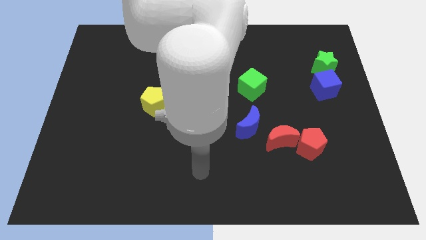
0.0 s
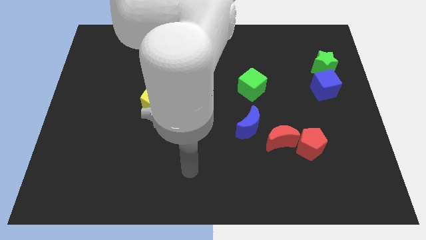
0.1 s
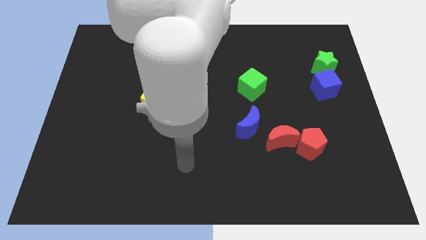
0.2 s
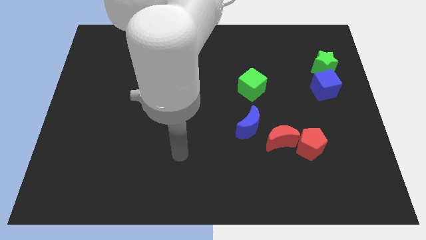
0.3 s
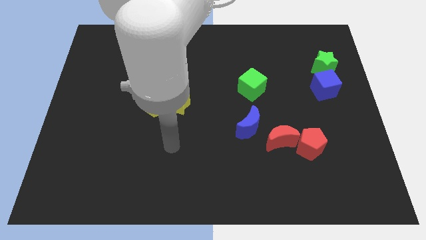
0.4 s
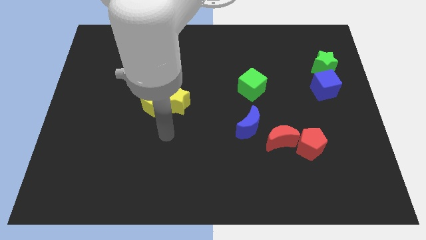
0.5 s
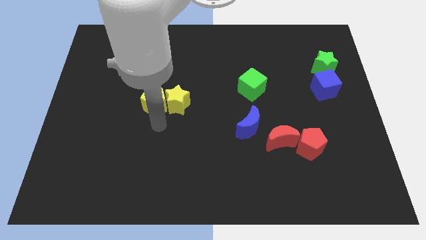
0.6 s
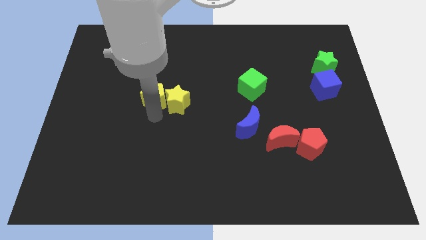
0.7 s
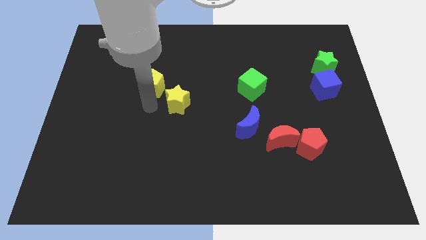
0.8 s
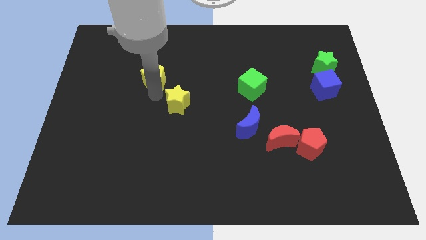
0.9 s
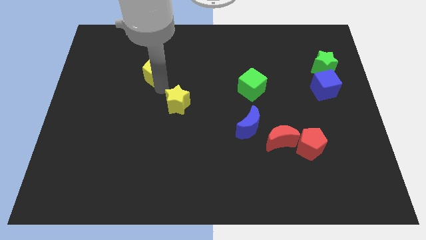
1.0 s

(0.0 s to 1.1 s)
separate the yellow star from the yellow pentagon

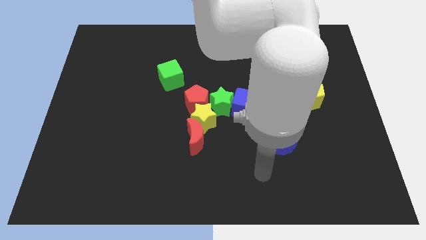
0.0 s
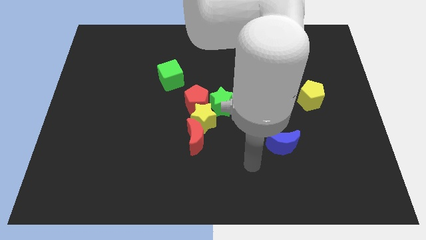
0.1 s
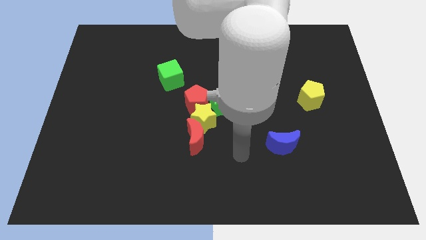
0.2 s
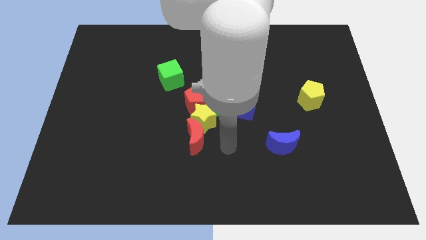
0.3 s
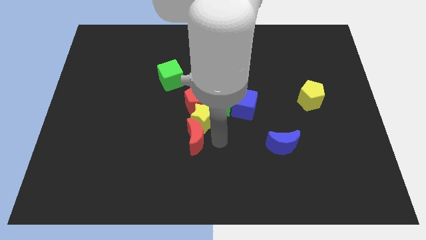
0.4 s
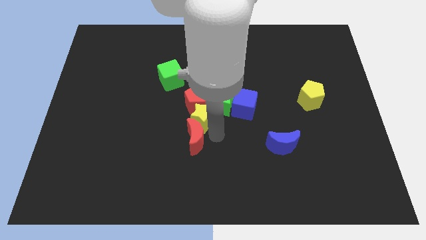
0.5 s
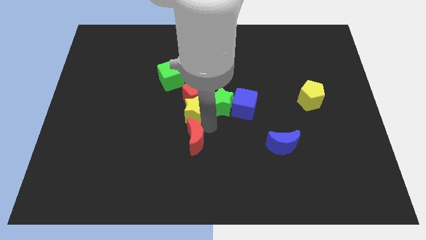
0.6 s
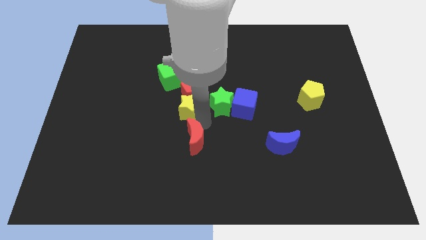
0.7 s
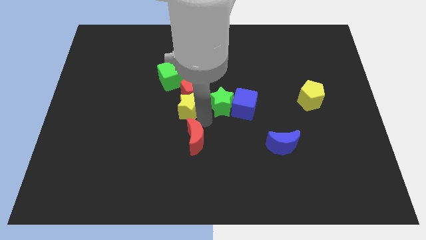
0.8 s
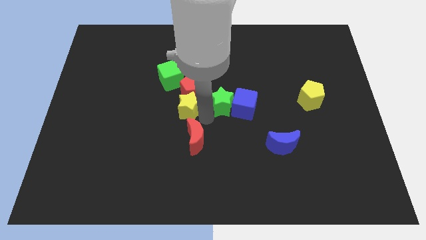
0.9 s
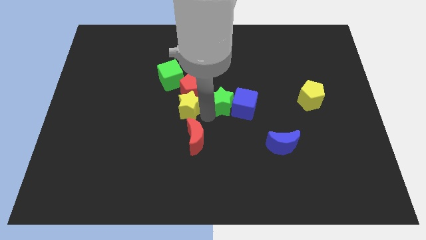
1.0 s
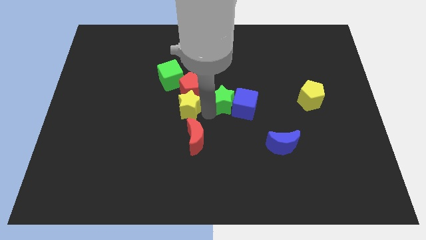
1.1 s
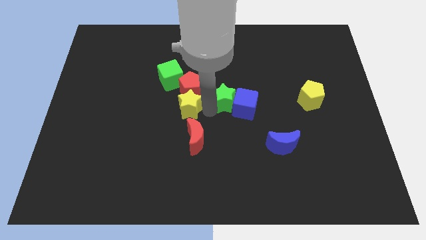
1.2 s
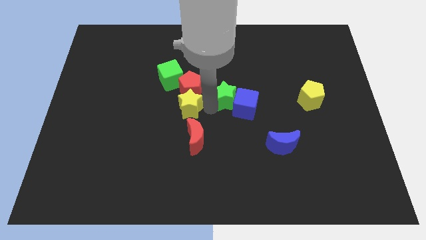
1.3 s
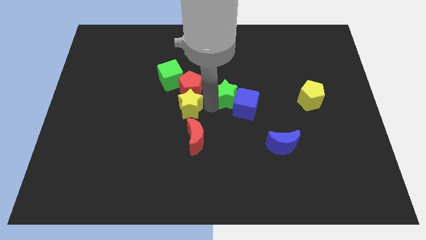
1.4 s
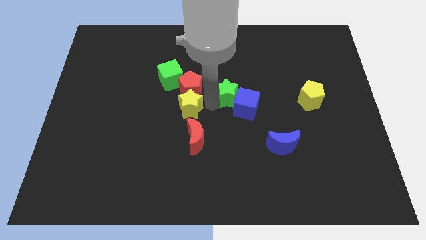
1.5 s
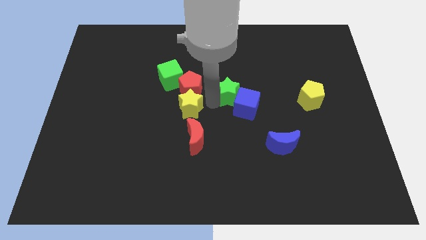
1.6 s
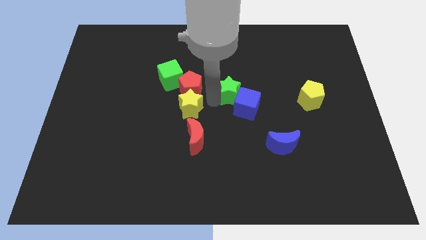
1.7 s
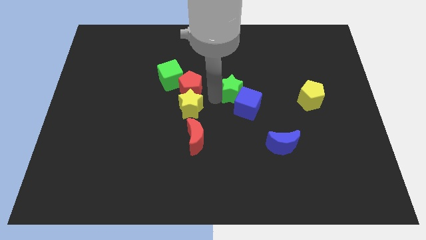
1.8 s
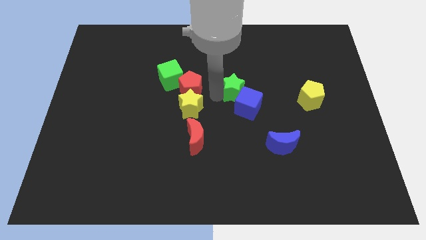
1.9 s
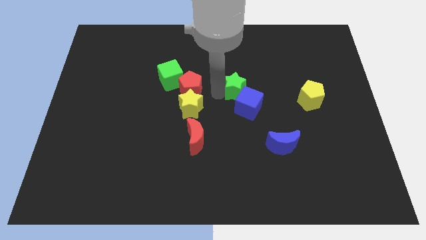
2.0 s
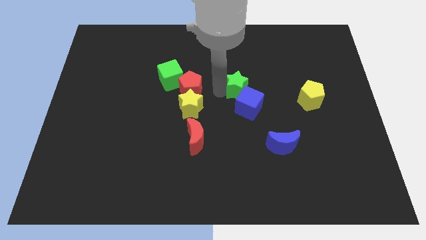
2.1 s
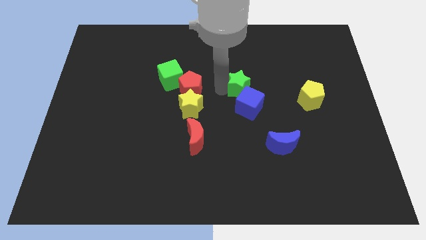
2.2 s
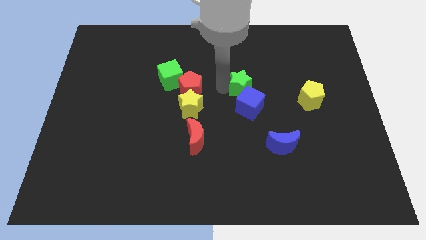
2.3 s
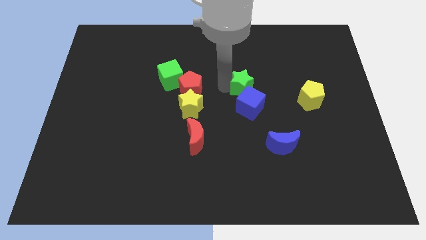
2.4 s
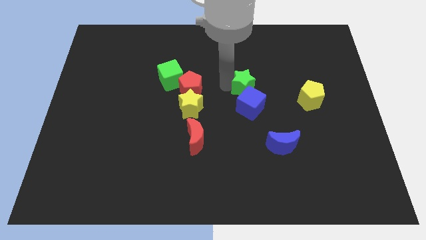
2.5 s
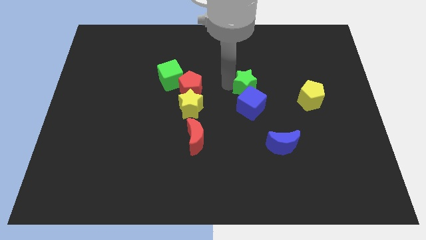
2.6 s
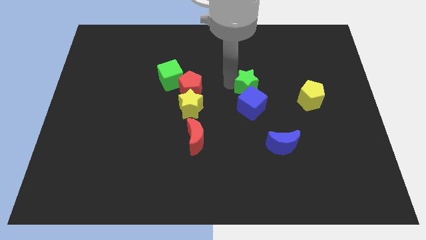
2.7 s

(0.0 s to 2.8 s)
pull the green star apart from the blue cube, red pentagon, and yellow star

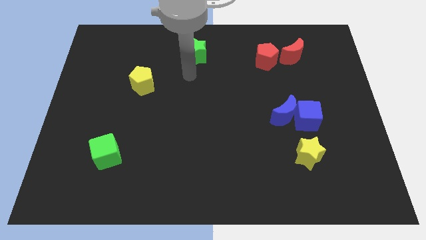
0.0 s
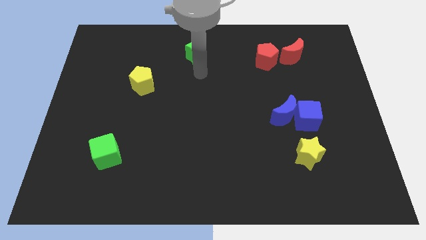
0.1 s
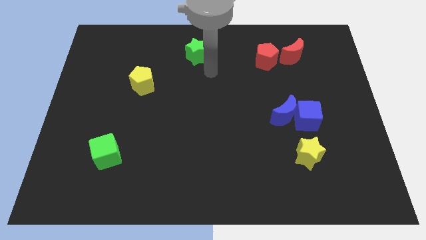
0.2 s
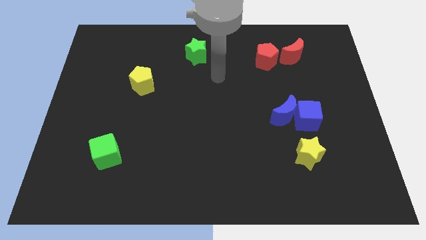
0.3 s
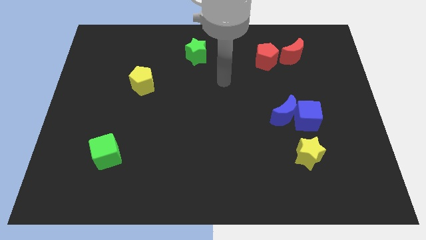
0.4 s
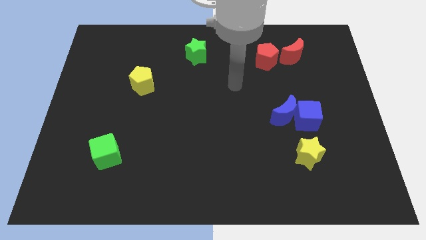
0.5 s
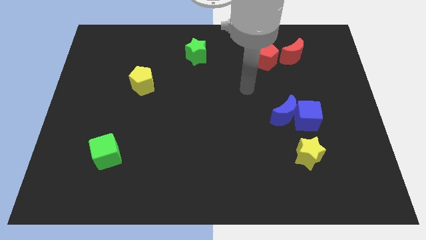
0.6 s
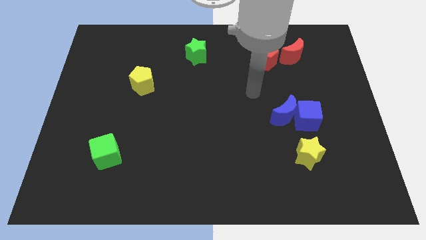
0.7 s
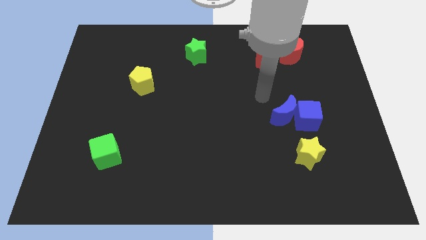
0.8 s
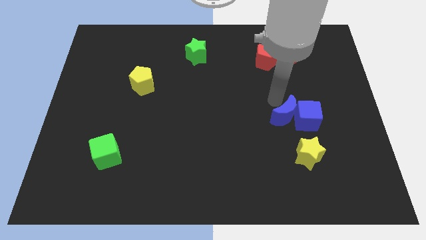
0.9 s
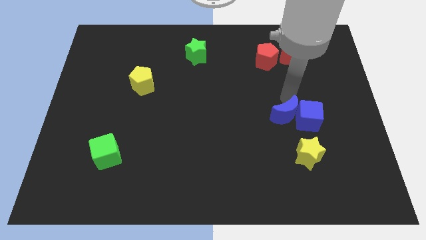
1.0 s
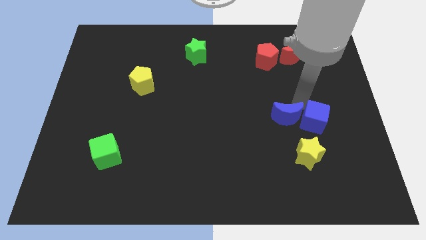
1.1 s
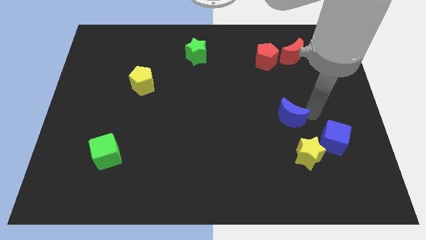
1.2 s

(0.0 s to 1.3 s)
pull the blue moon apart from the blue cube

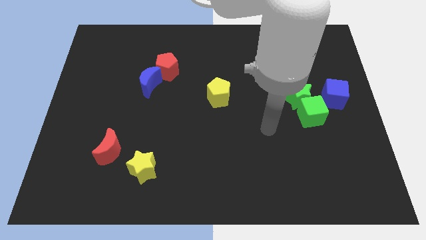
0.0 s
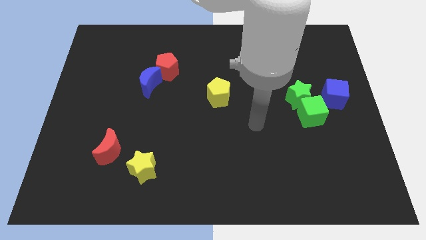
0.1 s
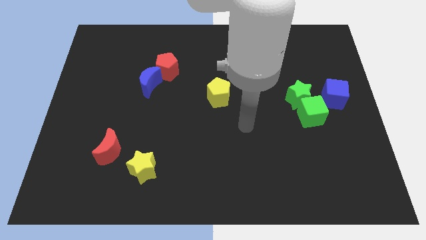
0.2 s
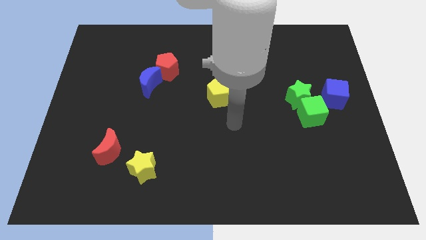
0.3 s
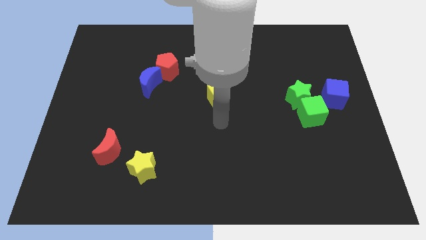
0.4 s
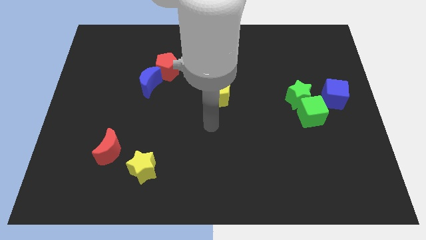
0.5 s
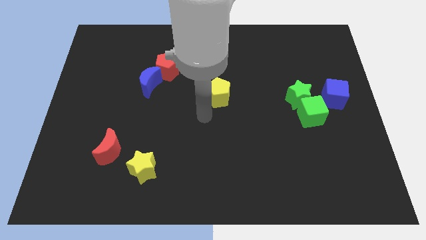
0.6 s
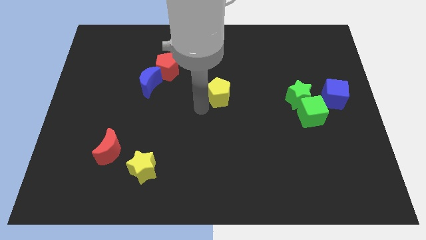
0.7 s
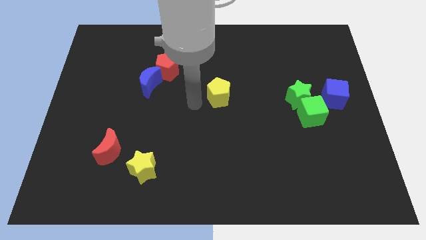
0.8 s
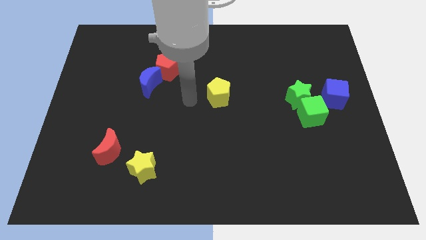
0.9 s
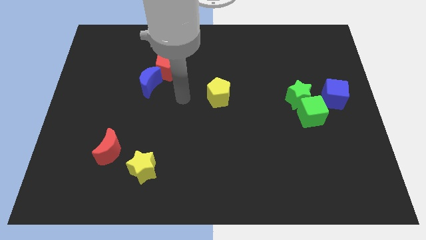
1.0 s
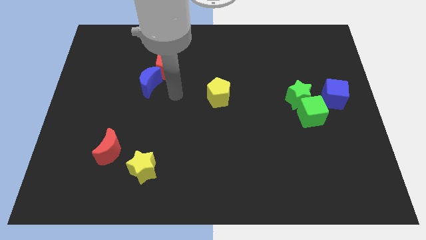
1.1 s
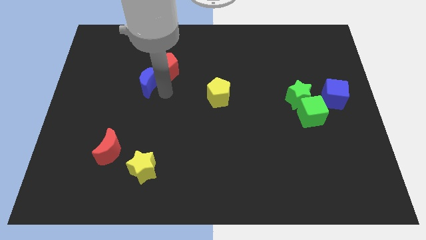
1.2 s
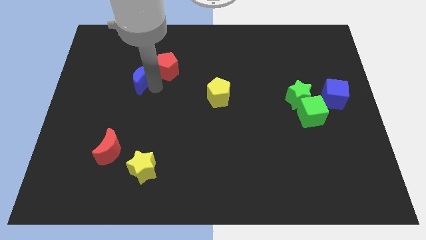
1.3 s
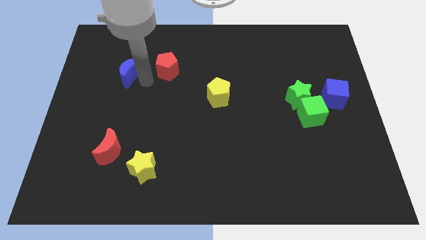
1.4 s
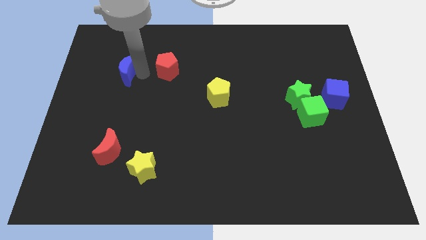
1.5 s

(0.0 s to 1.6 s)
pull the red pentagon apart from the blue moon

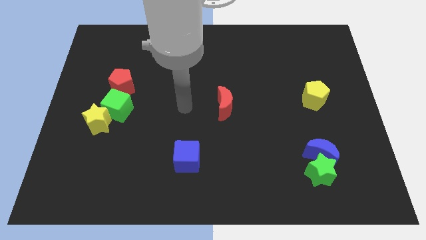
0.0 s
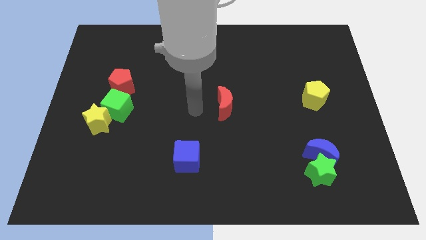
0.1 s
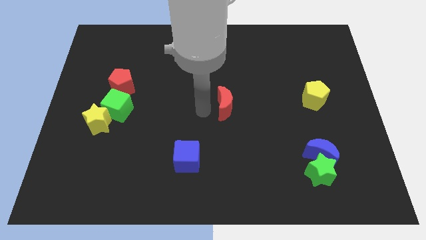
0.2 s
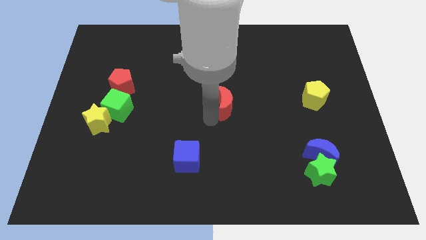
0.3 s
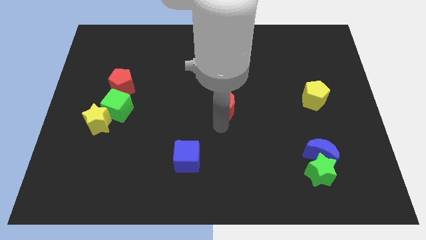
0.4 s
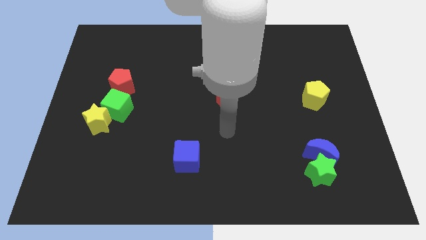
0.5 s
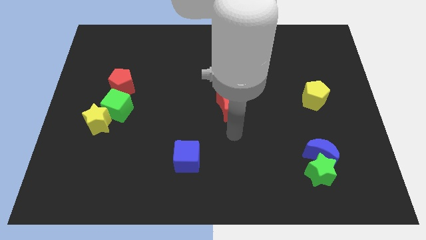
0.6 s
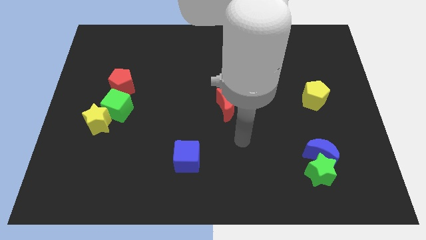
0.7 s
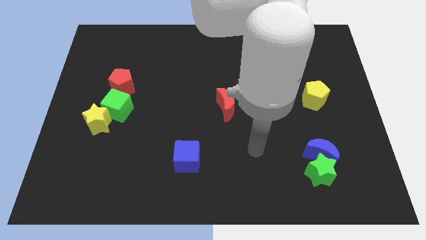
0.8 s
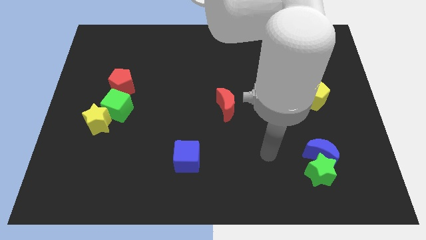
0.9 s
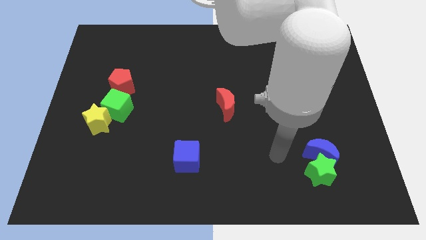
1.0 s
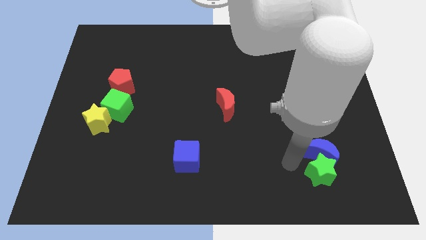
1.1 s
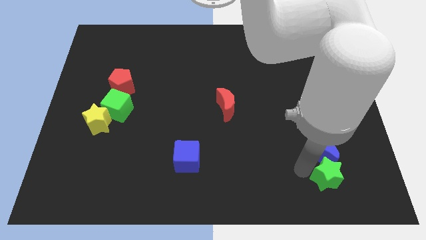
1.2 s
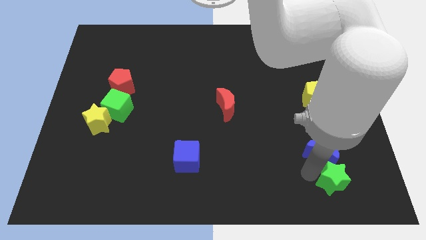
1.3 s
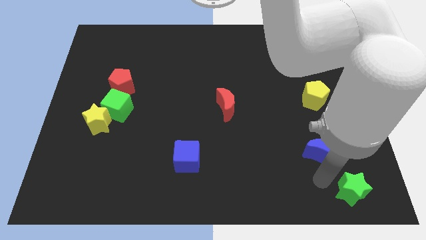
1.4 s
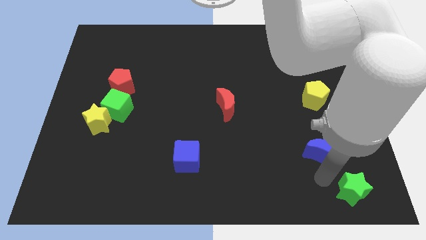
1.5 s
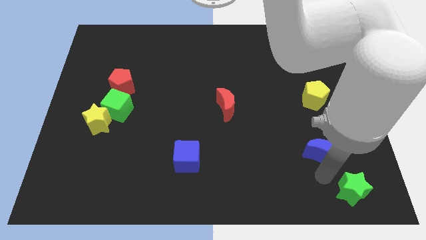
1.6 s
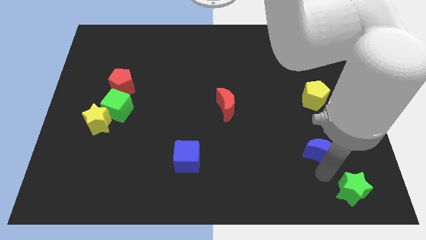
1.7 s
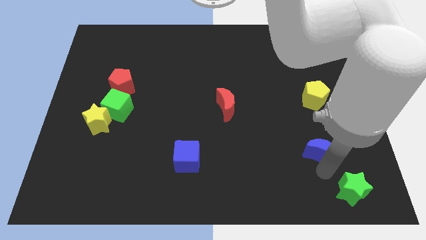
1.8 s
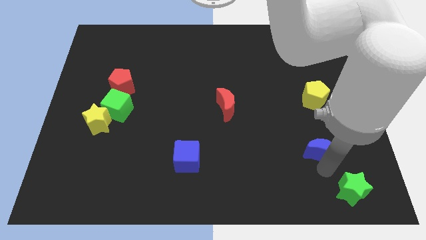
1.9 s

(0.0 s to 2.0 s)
move the blue moon away from the green star

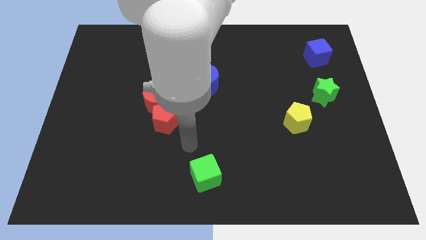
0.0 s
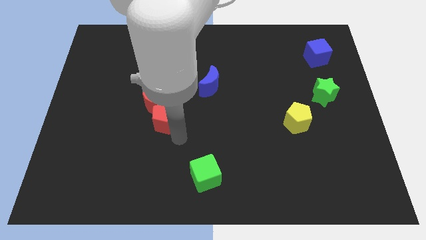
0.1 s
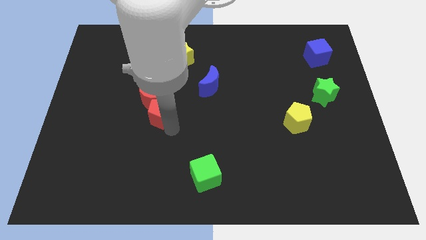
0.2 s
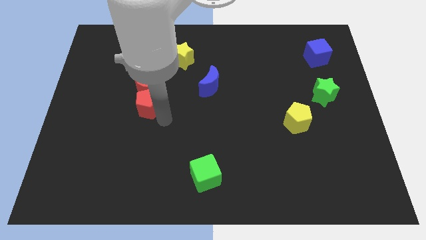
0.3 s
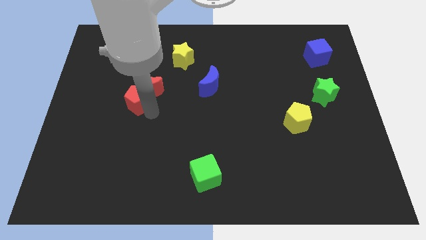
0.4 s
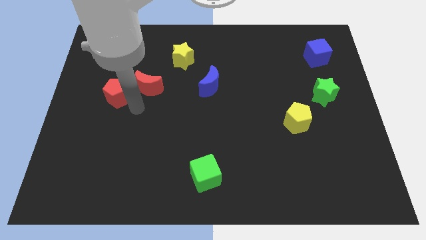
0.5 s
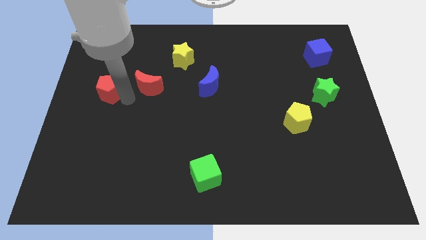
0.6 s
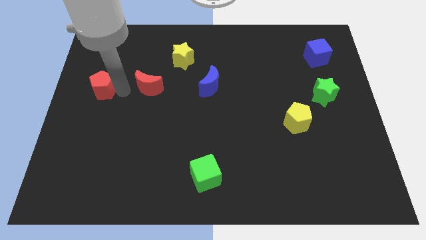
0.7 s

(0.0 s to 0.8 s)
move the red moon away from the red pentagon
